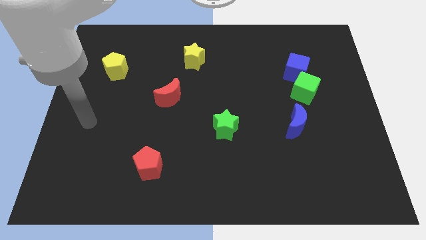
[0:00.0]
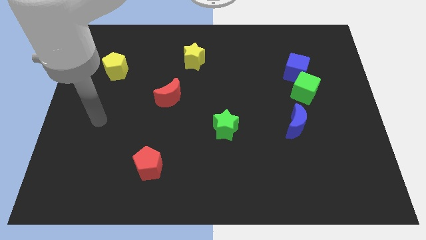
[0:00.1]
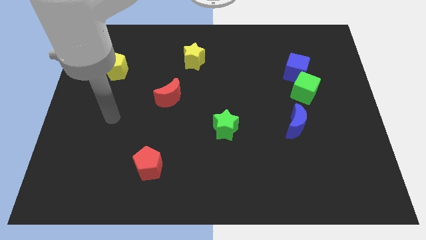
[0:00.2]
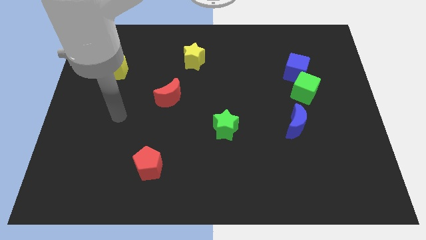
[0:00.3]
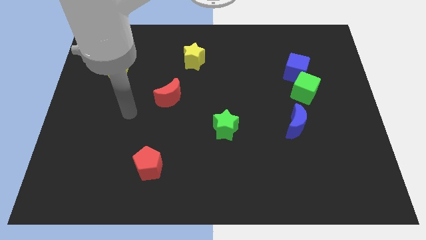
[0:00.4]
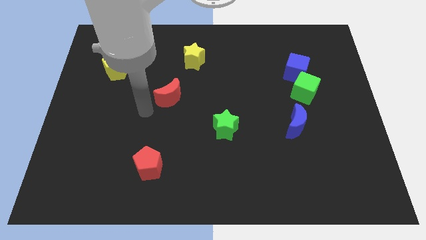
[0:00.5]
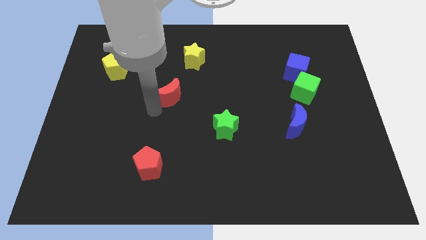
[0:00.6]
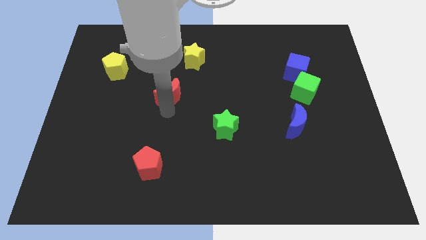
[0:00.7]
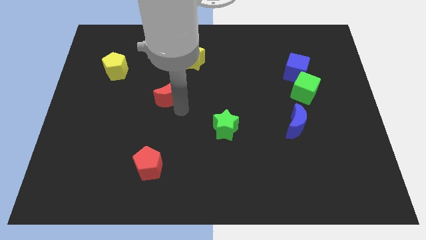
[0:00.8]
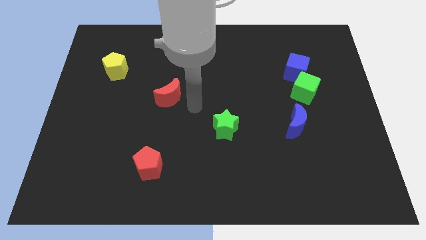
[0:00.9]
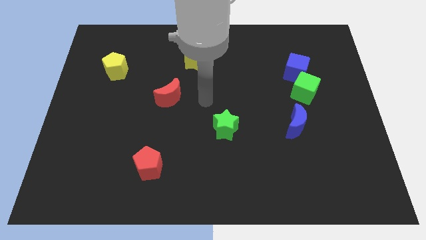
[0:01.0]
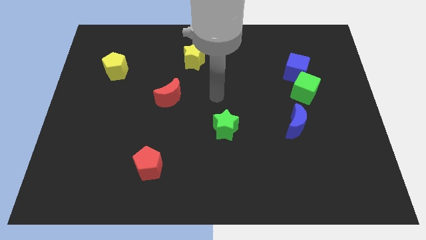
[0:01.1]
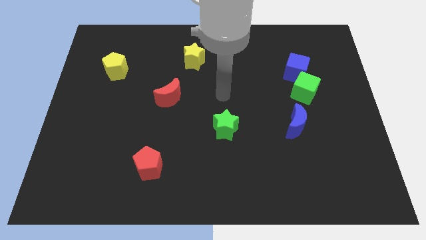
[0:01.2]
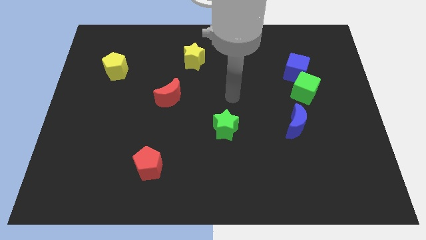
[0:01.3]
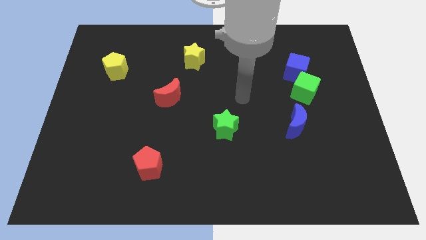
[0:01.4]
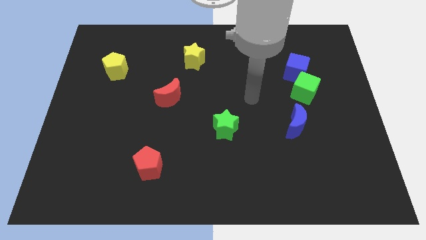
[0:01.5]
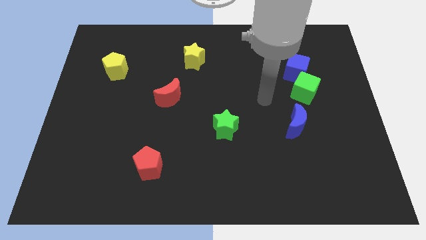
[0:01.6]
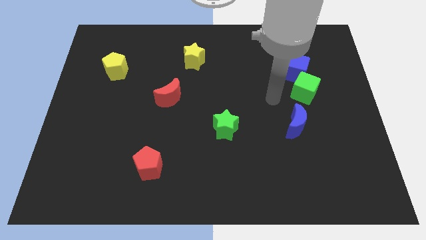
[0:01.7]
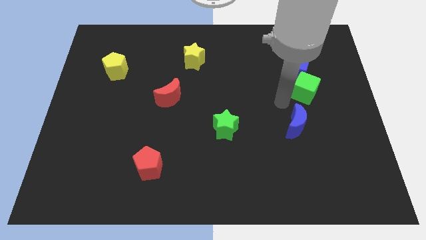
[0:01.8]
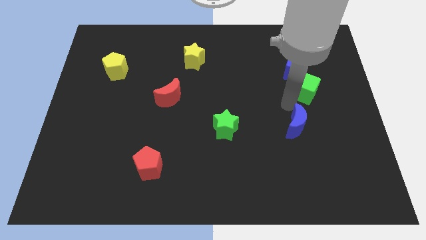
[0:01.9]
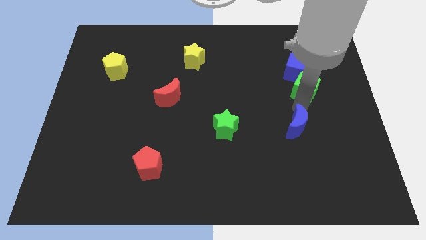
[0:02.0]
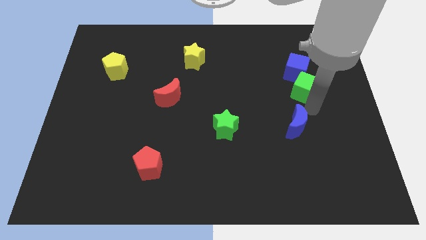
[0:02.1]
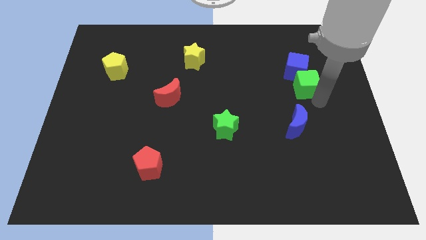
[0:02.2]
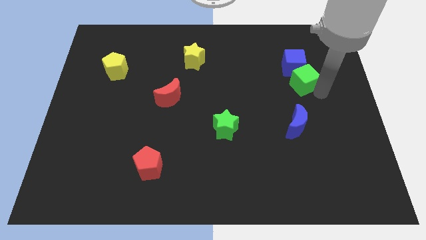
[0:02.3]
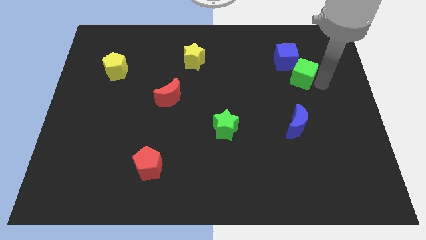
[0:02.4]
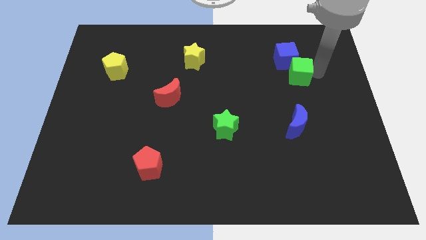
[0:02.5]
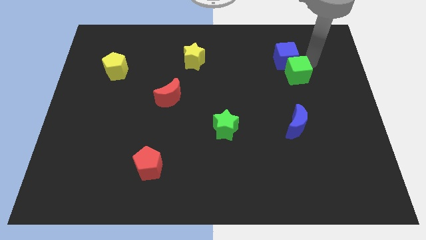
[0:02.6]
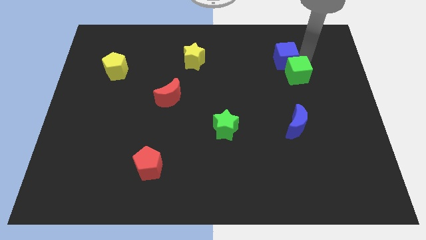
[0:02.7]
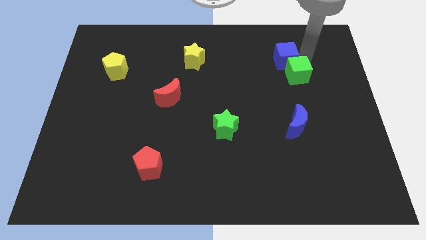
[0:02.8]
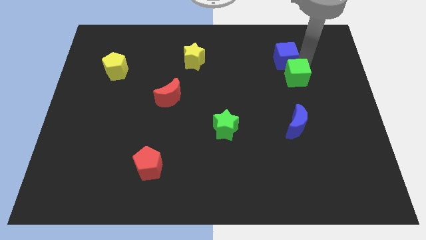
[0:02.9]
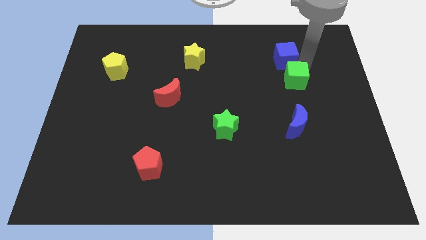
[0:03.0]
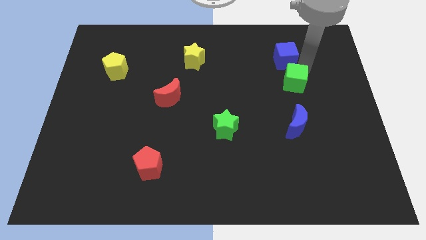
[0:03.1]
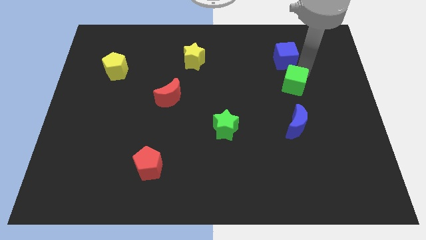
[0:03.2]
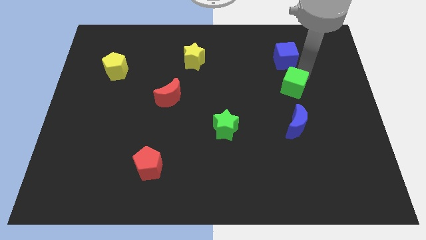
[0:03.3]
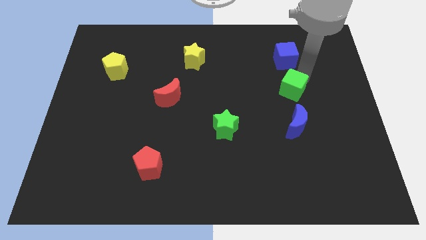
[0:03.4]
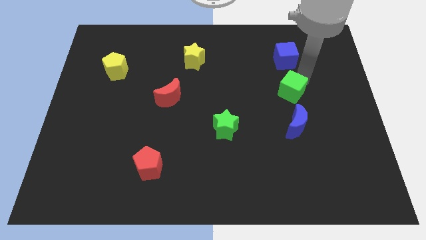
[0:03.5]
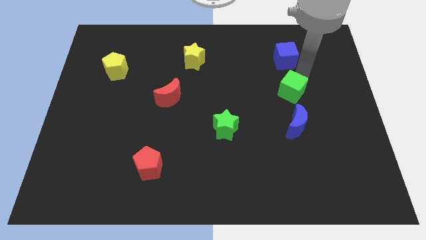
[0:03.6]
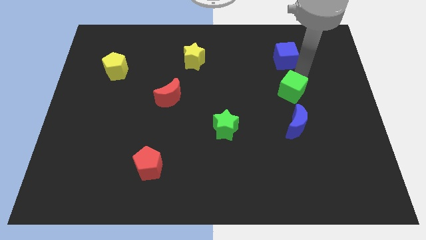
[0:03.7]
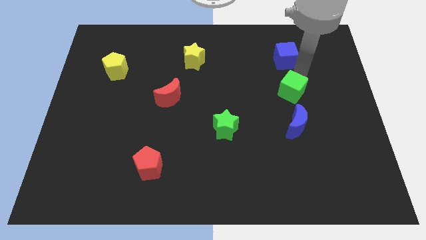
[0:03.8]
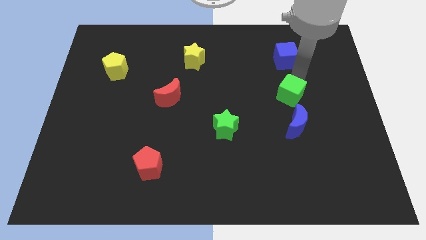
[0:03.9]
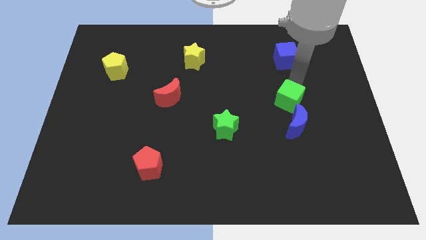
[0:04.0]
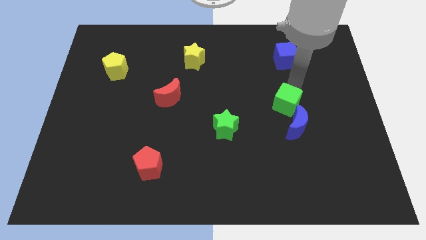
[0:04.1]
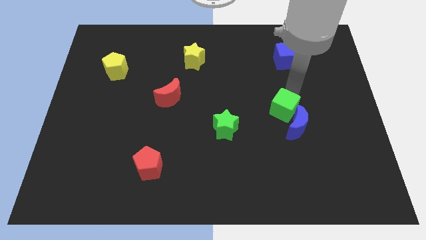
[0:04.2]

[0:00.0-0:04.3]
slightly slide the green cube down and then left

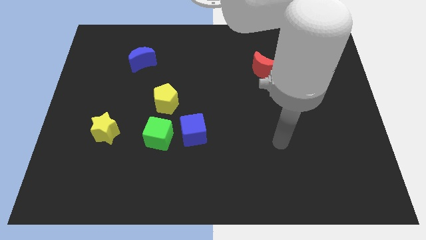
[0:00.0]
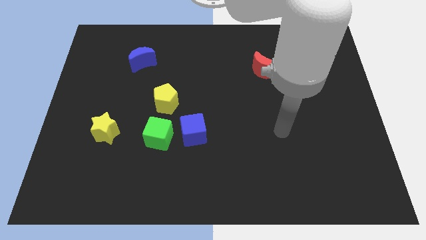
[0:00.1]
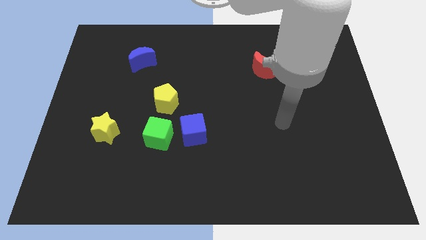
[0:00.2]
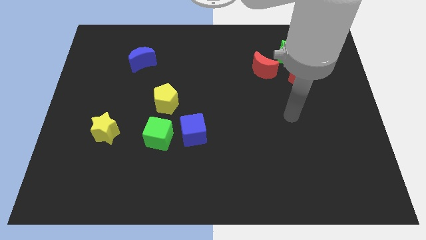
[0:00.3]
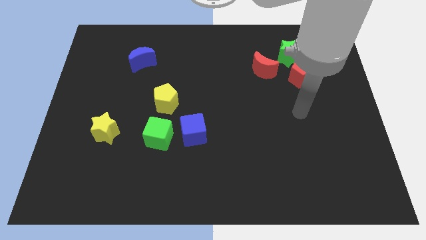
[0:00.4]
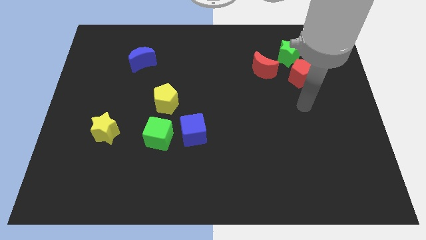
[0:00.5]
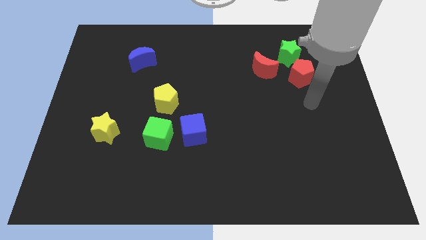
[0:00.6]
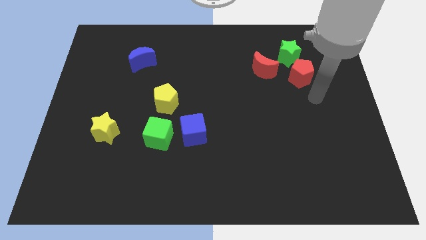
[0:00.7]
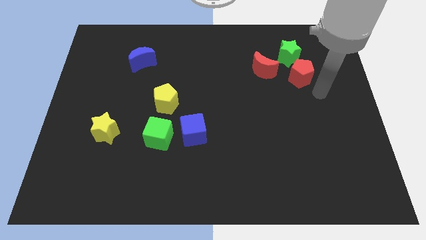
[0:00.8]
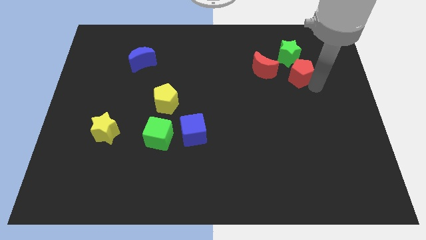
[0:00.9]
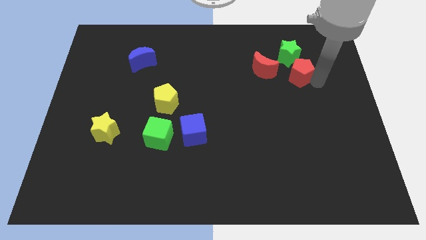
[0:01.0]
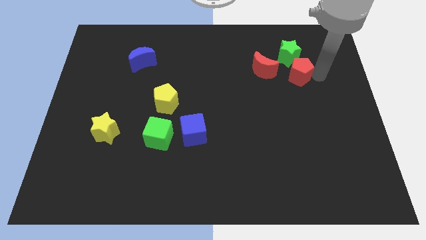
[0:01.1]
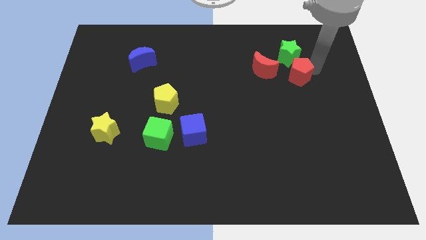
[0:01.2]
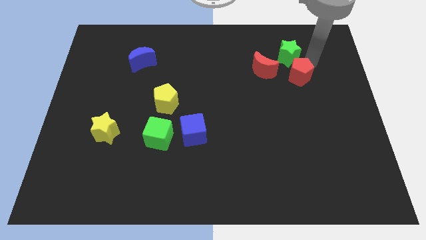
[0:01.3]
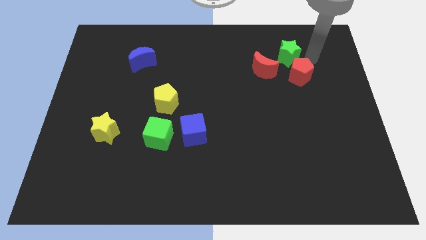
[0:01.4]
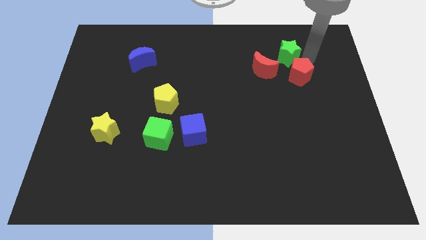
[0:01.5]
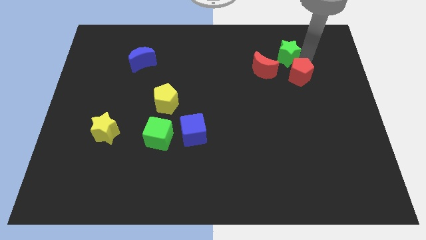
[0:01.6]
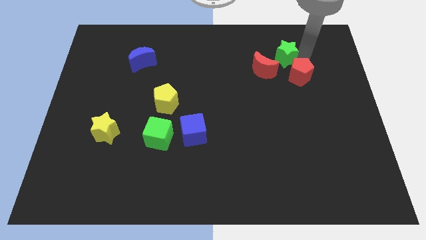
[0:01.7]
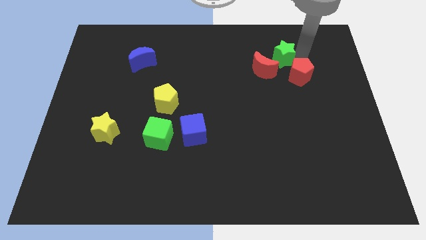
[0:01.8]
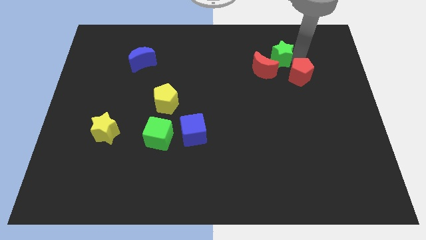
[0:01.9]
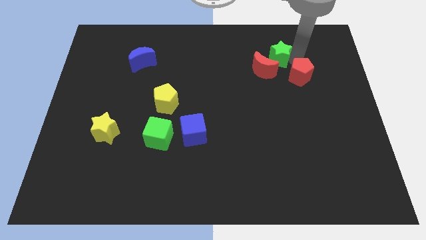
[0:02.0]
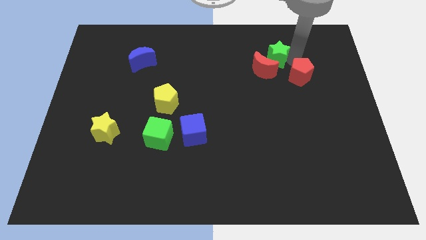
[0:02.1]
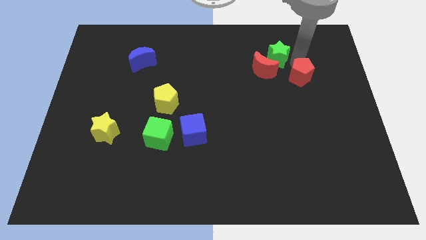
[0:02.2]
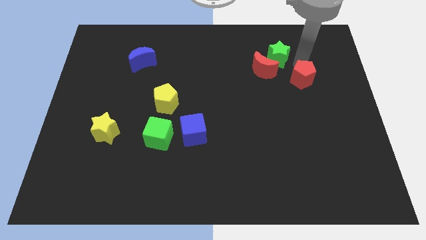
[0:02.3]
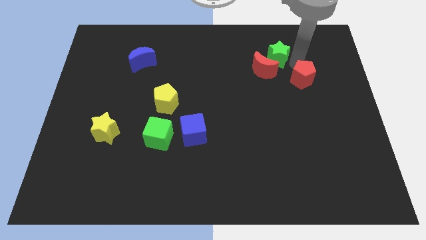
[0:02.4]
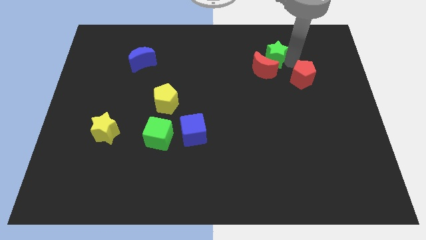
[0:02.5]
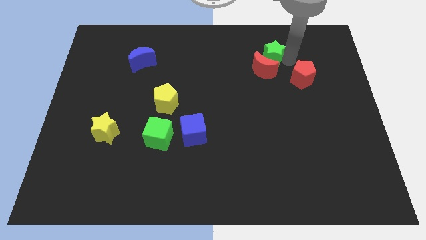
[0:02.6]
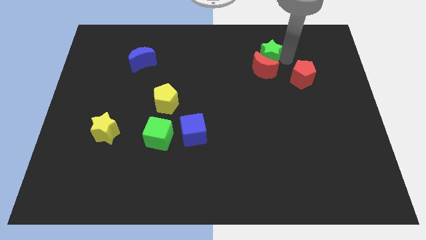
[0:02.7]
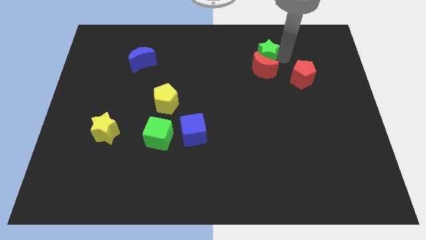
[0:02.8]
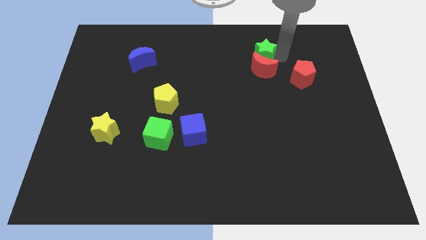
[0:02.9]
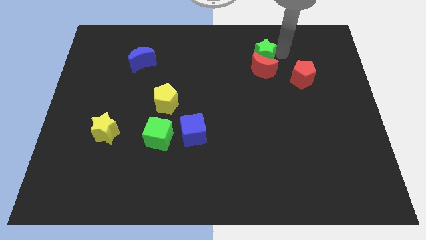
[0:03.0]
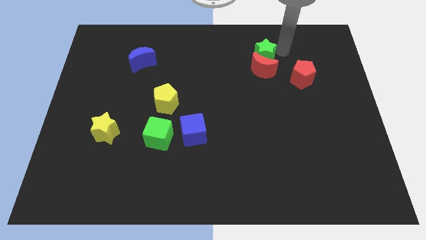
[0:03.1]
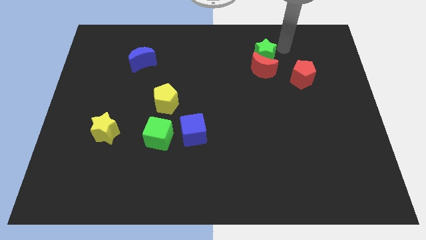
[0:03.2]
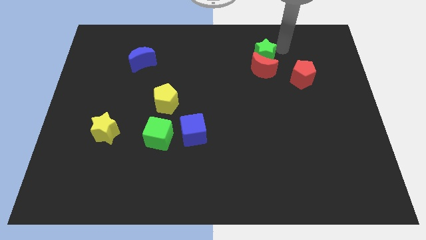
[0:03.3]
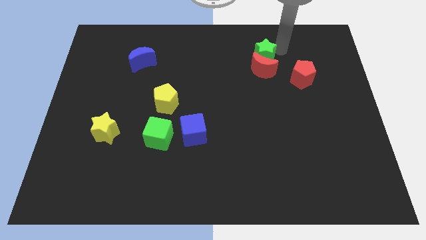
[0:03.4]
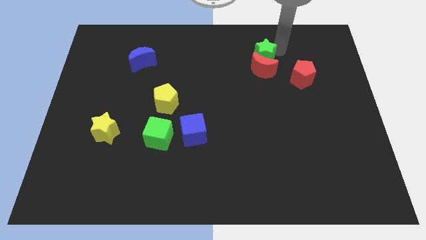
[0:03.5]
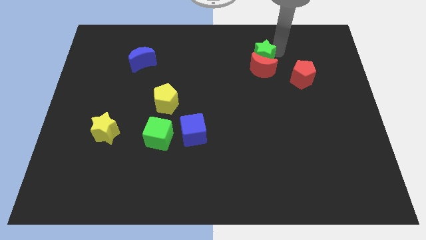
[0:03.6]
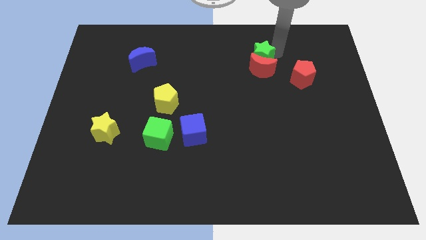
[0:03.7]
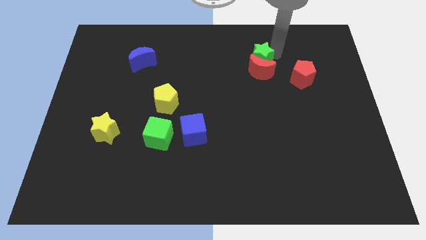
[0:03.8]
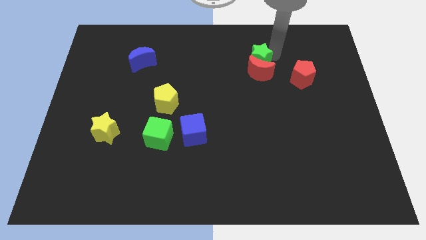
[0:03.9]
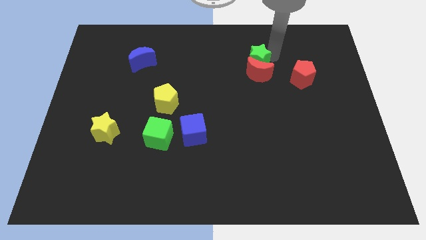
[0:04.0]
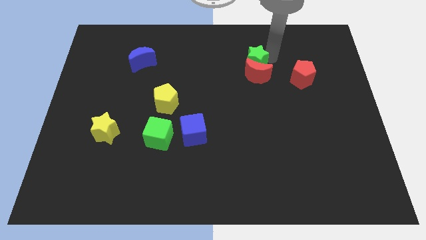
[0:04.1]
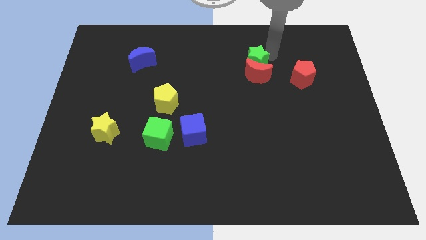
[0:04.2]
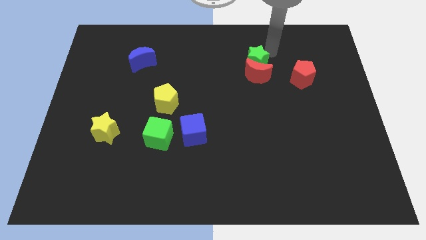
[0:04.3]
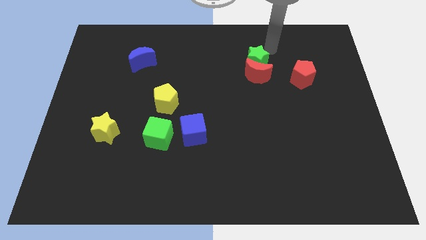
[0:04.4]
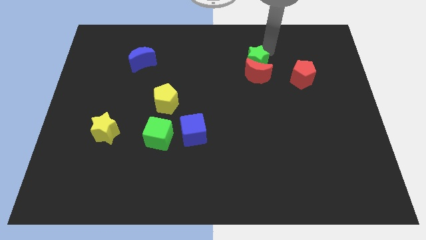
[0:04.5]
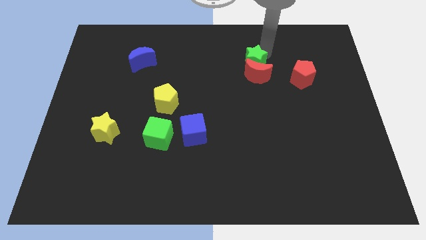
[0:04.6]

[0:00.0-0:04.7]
move the green star a little bit downwards and to the left diagonally
